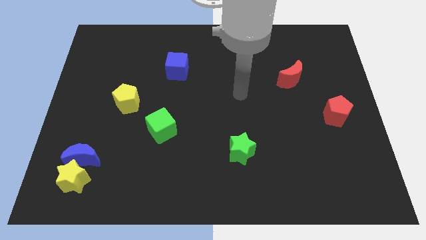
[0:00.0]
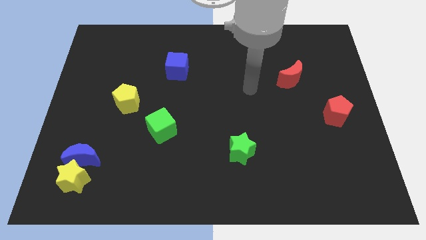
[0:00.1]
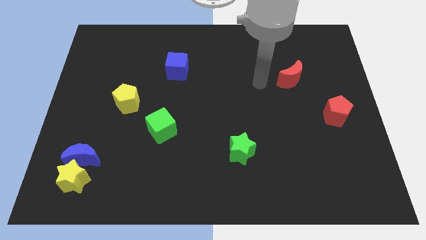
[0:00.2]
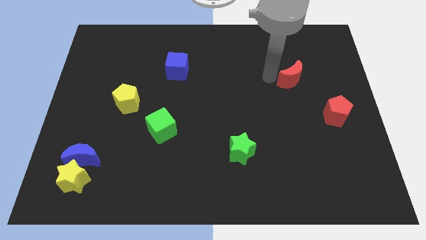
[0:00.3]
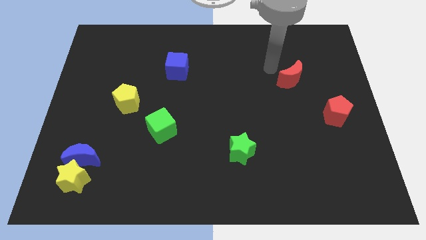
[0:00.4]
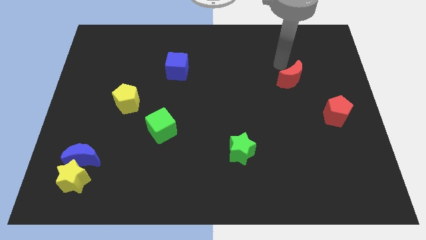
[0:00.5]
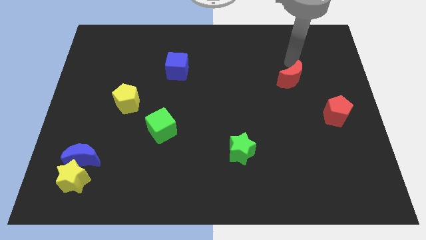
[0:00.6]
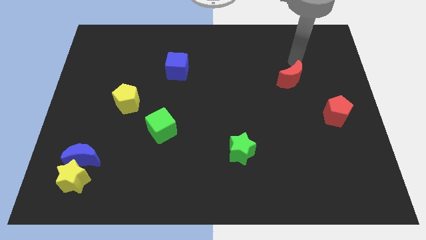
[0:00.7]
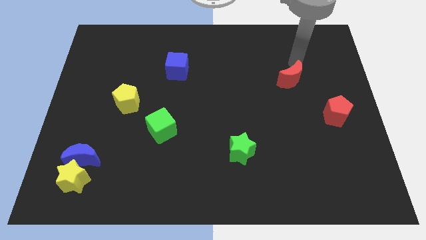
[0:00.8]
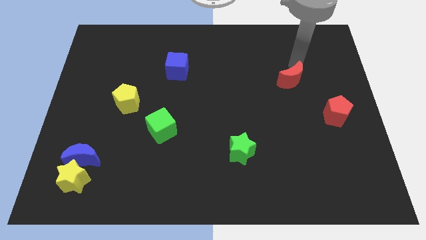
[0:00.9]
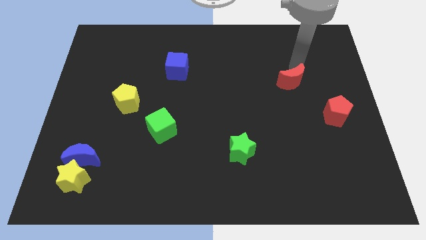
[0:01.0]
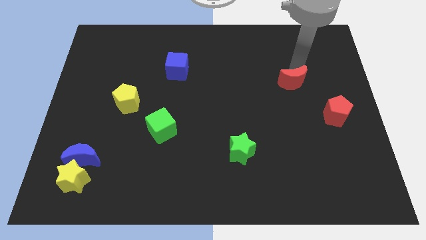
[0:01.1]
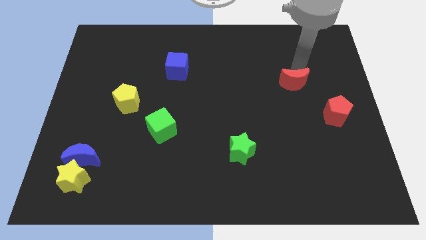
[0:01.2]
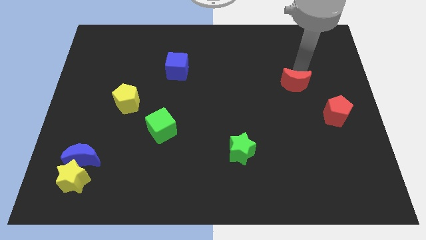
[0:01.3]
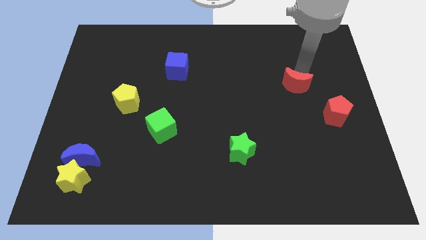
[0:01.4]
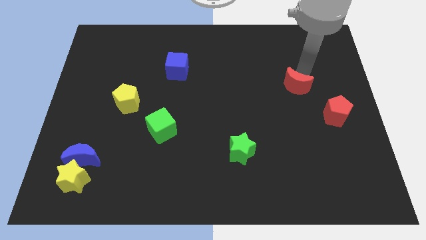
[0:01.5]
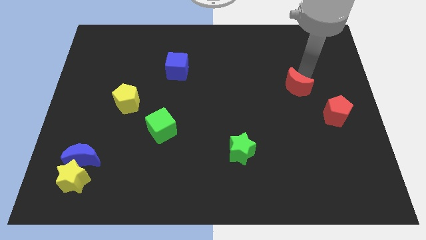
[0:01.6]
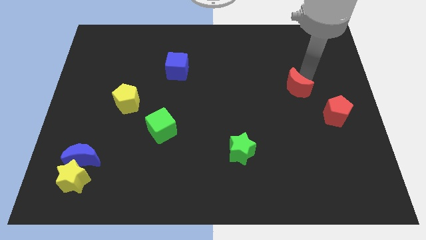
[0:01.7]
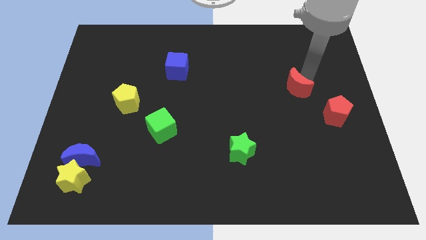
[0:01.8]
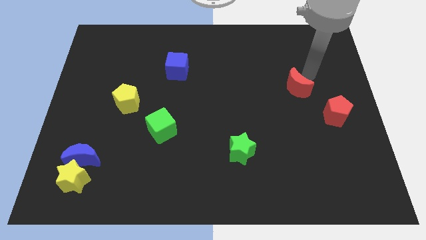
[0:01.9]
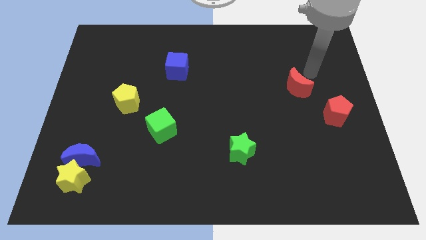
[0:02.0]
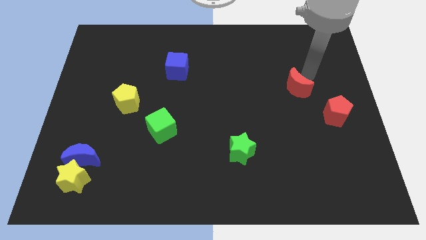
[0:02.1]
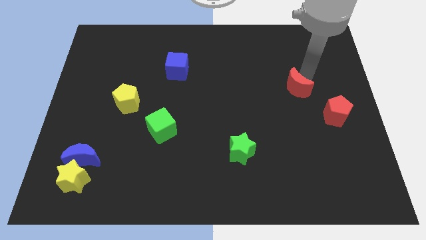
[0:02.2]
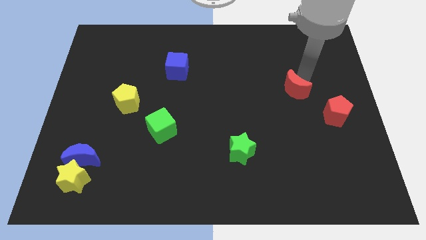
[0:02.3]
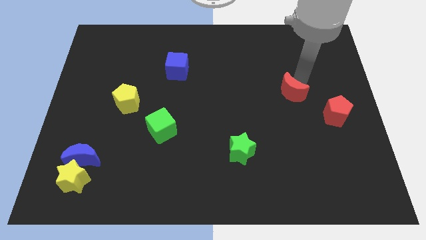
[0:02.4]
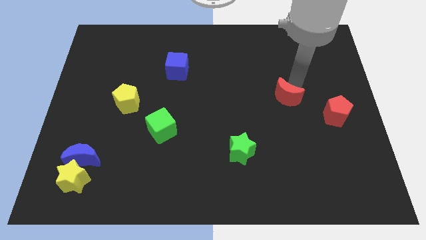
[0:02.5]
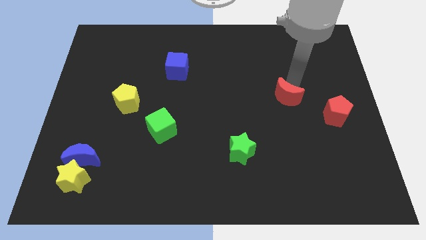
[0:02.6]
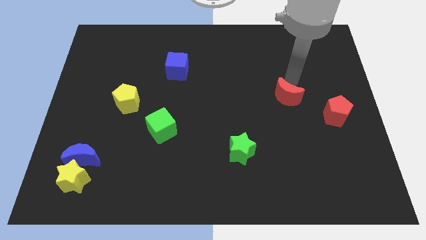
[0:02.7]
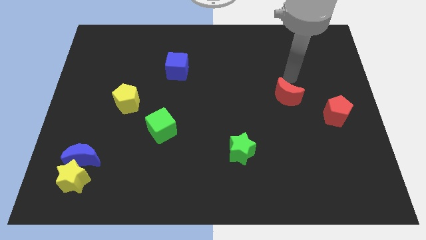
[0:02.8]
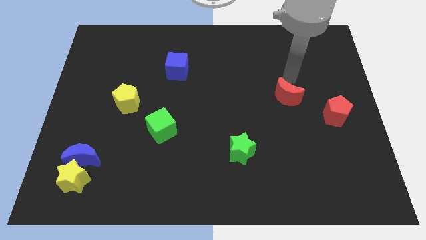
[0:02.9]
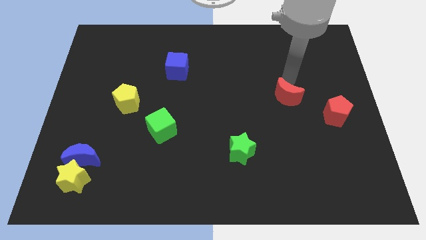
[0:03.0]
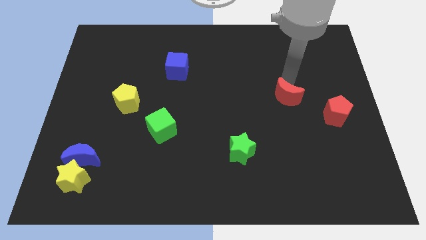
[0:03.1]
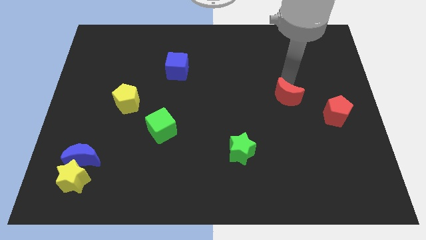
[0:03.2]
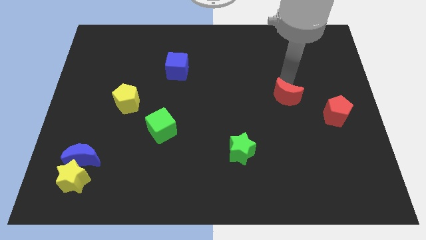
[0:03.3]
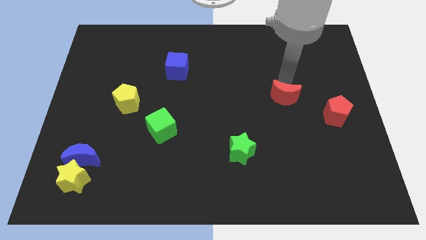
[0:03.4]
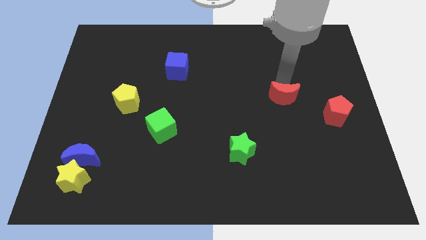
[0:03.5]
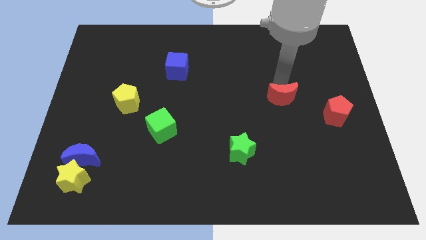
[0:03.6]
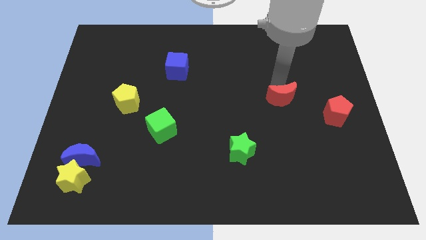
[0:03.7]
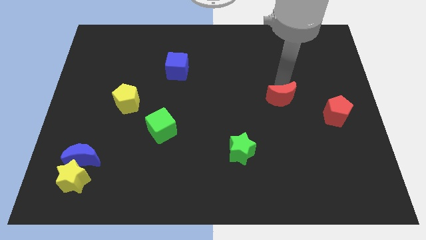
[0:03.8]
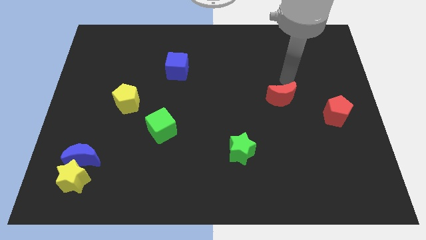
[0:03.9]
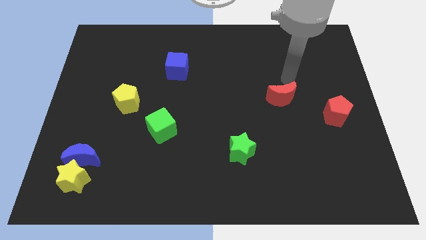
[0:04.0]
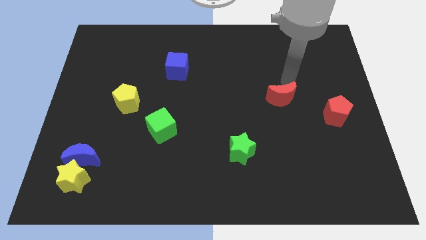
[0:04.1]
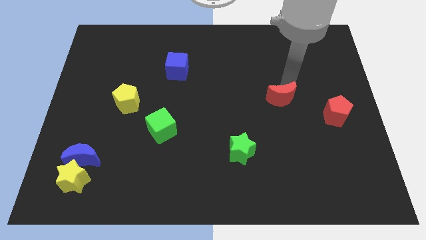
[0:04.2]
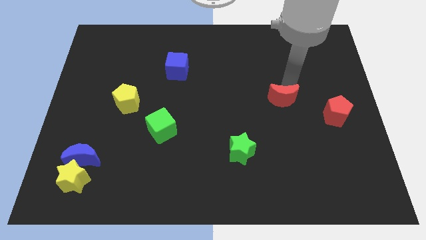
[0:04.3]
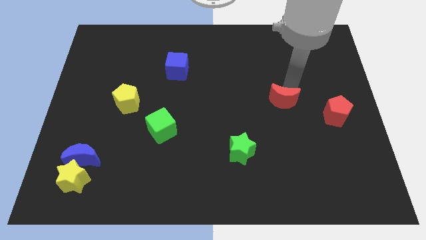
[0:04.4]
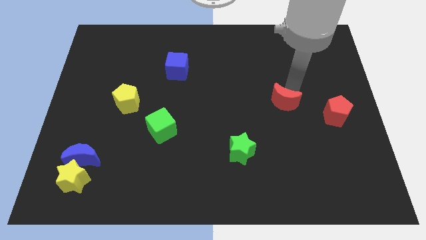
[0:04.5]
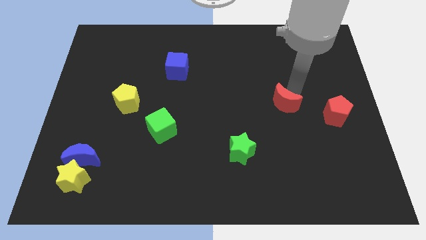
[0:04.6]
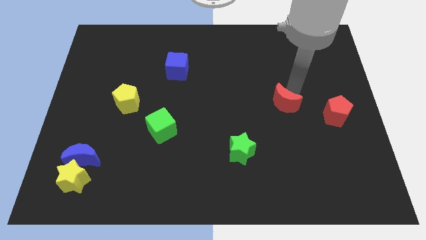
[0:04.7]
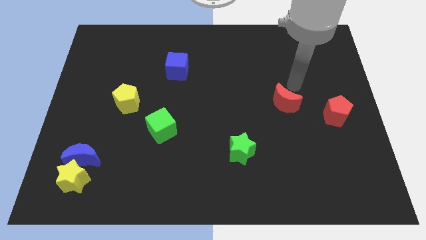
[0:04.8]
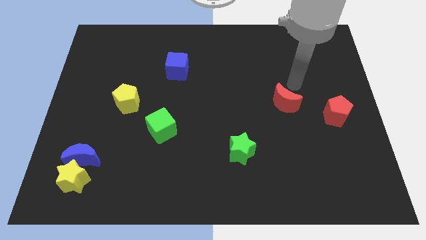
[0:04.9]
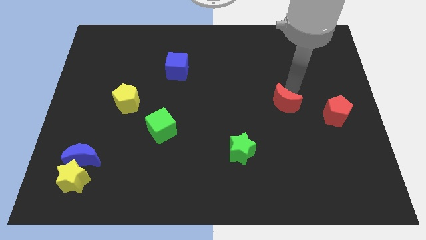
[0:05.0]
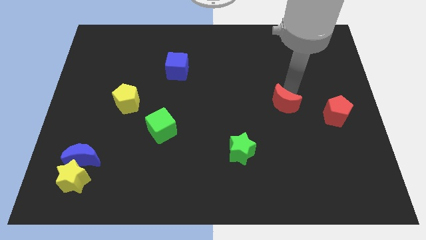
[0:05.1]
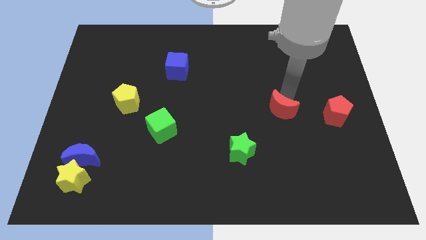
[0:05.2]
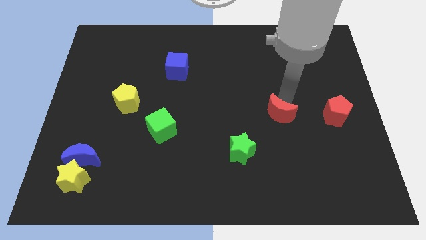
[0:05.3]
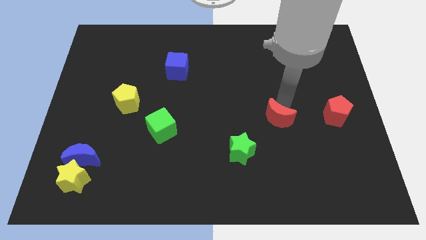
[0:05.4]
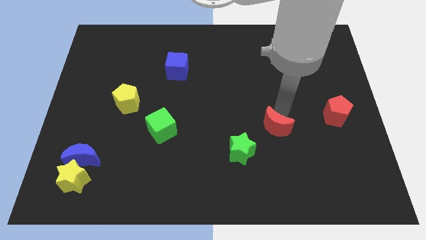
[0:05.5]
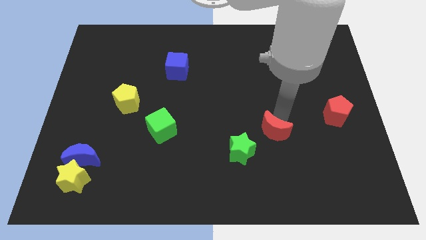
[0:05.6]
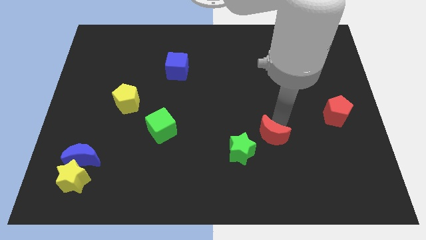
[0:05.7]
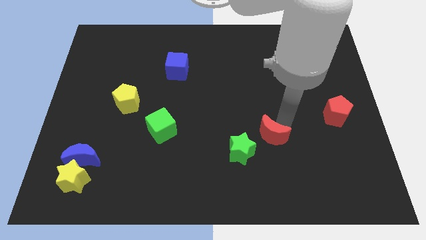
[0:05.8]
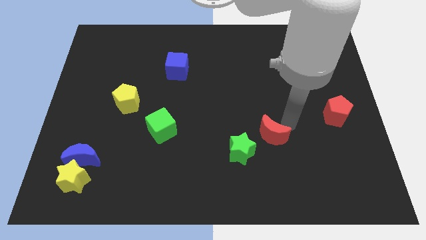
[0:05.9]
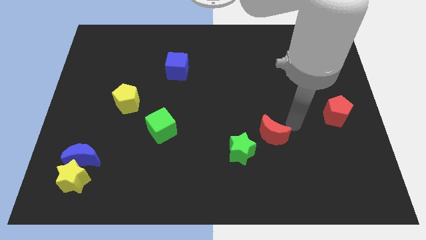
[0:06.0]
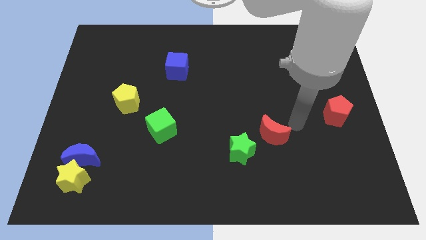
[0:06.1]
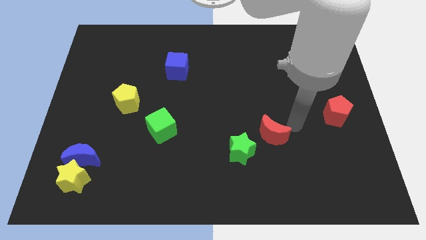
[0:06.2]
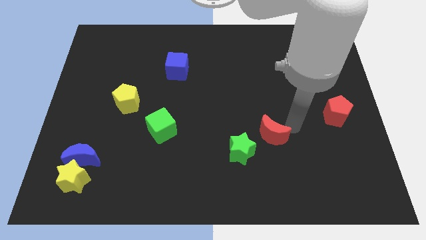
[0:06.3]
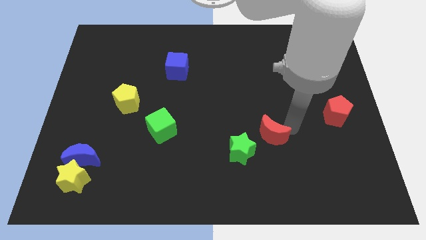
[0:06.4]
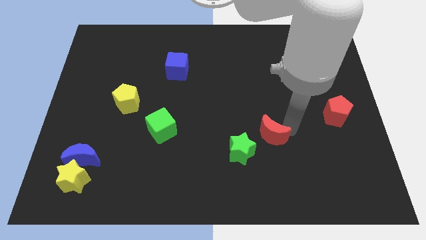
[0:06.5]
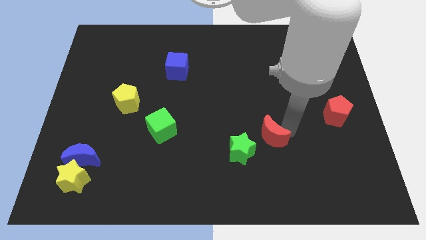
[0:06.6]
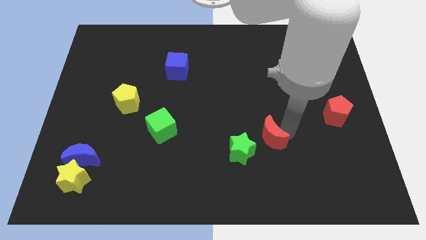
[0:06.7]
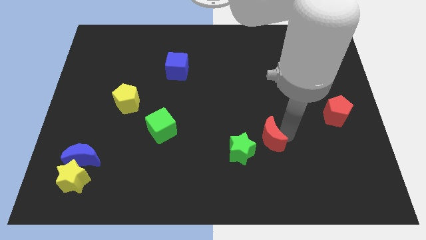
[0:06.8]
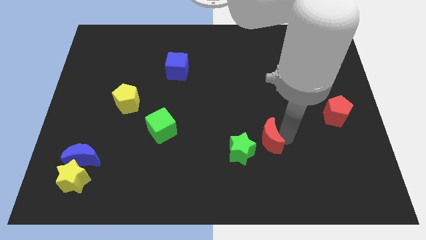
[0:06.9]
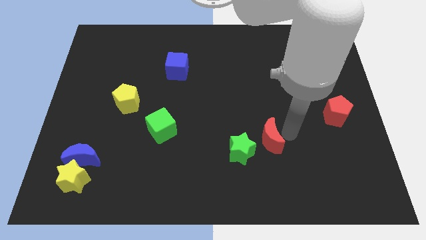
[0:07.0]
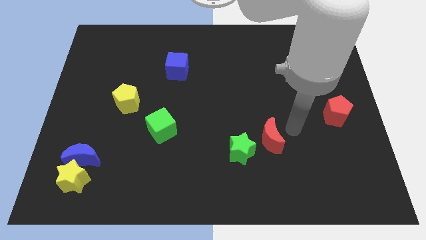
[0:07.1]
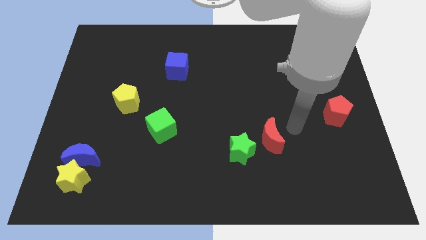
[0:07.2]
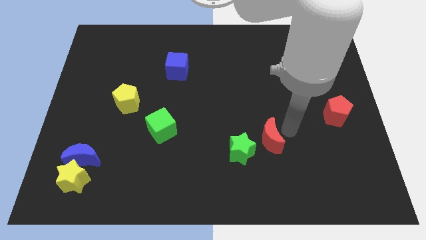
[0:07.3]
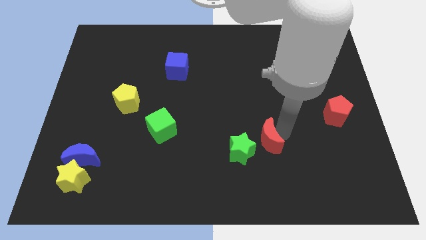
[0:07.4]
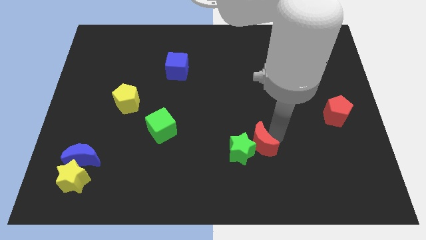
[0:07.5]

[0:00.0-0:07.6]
slide the red moon towards the green star
